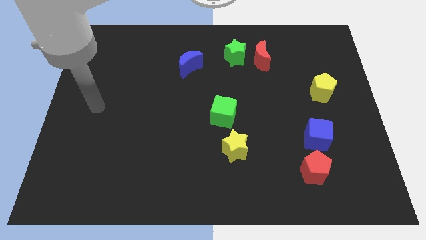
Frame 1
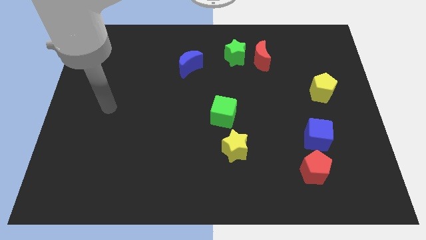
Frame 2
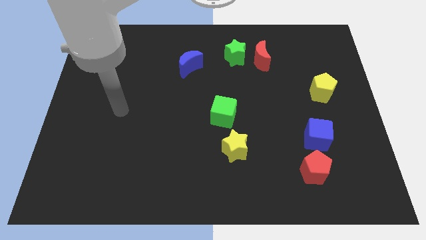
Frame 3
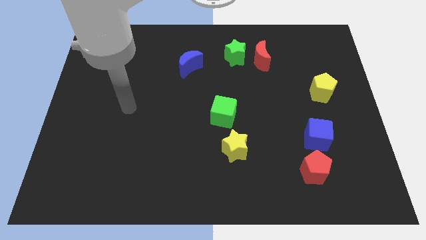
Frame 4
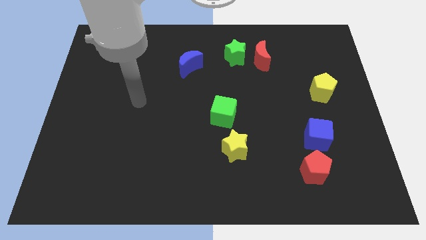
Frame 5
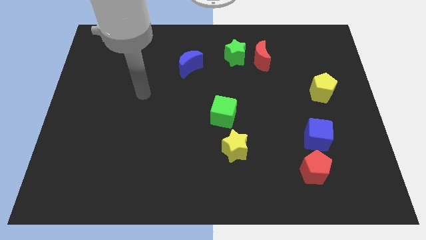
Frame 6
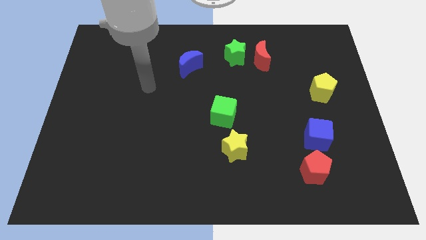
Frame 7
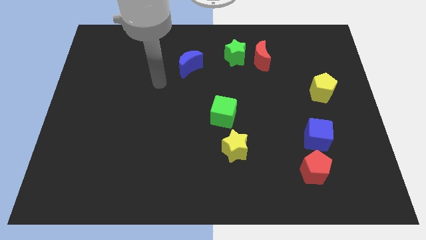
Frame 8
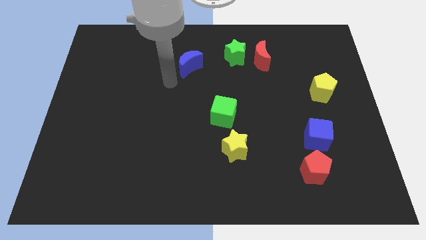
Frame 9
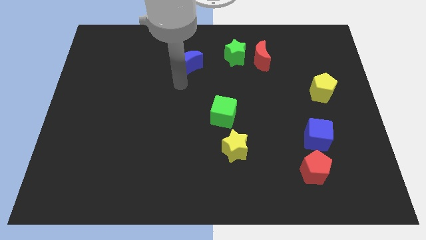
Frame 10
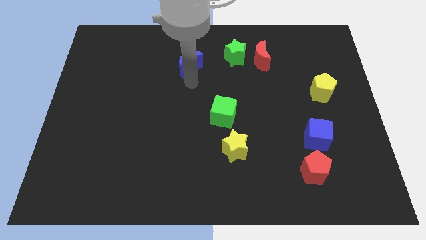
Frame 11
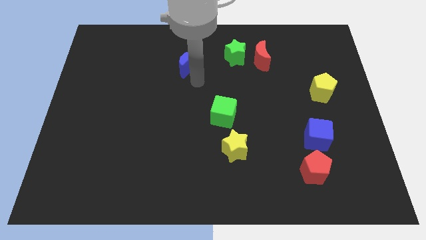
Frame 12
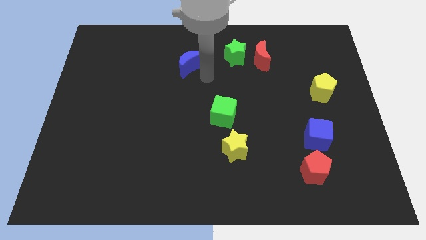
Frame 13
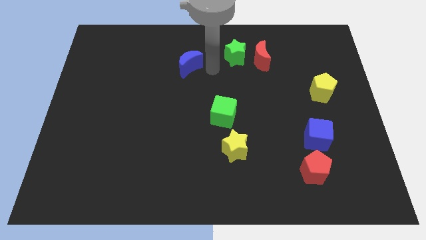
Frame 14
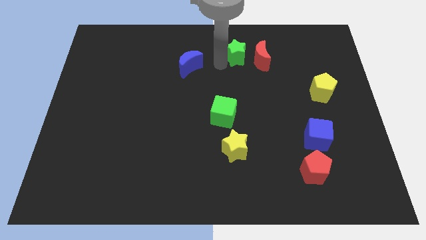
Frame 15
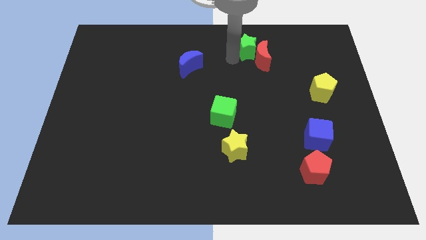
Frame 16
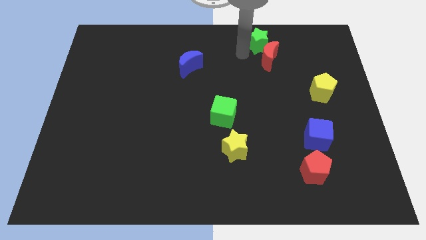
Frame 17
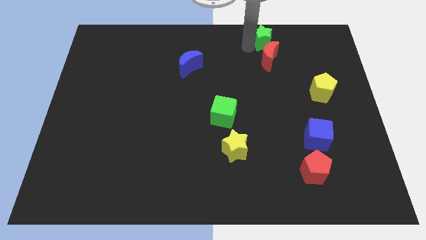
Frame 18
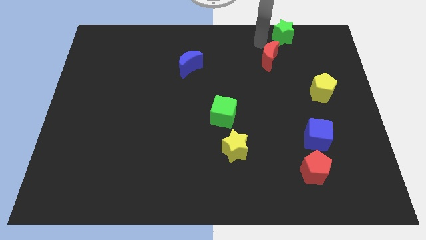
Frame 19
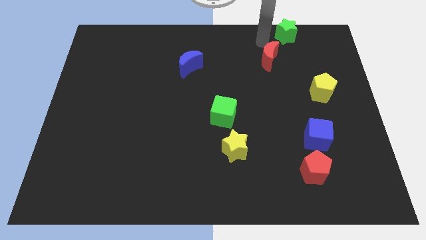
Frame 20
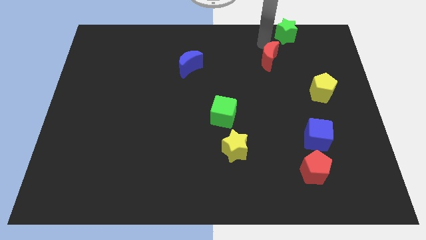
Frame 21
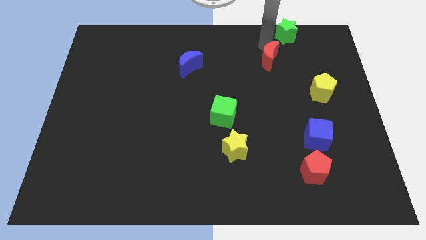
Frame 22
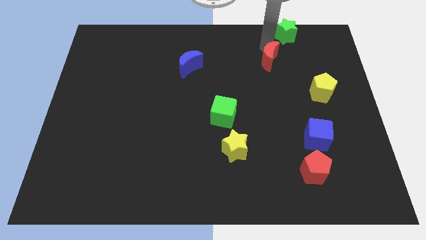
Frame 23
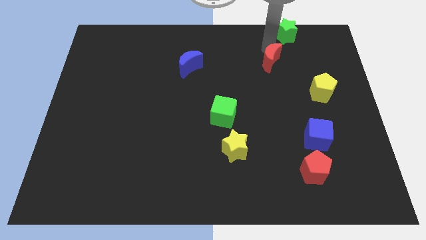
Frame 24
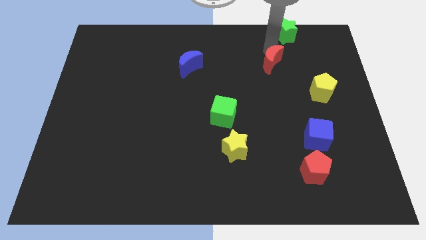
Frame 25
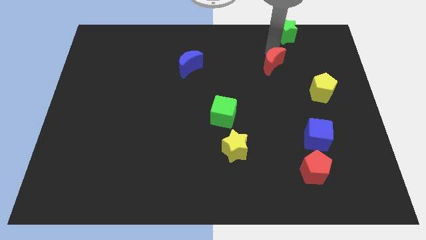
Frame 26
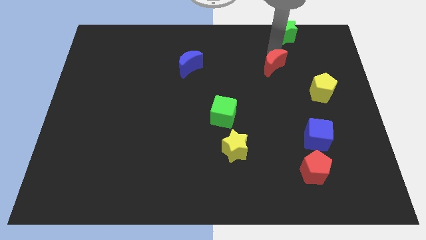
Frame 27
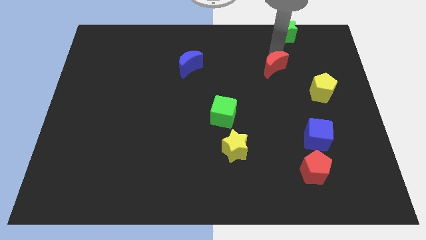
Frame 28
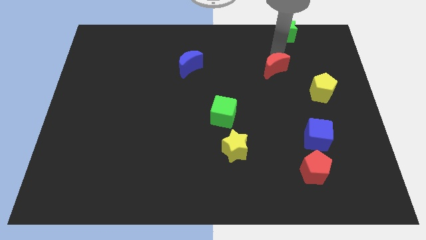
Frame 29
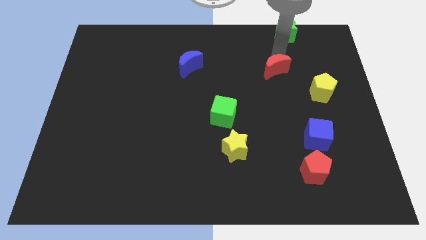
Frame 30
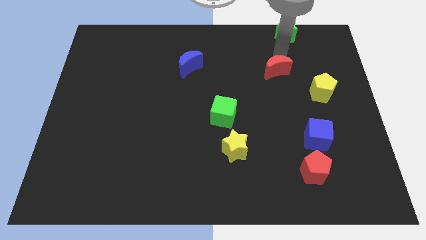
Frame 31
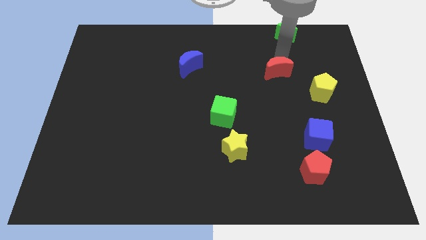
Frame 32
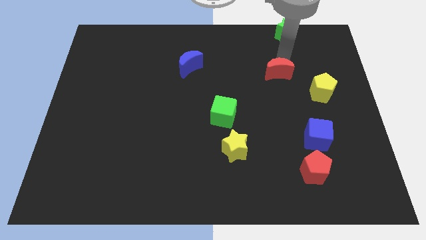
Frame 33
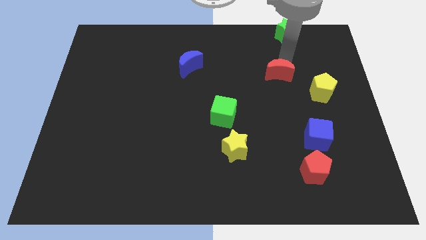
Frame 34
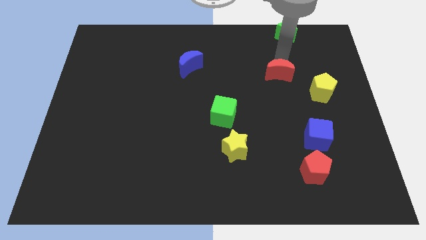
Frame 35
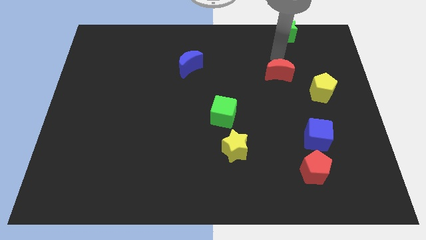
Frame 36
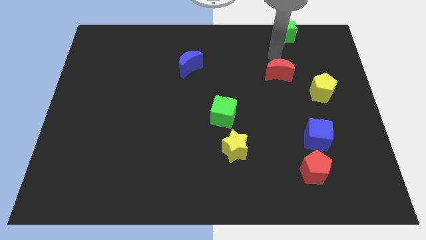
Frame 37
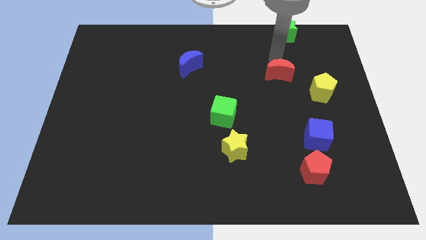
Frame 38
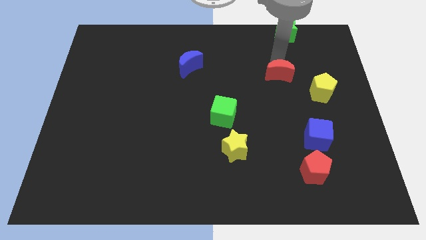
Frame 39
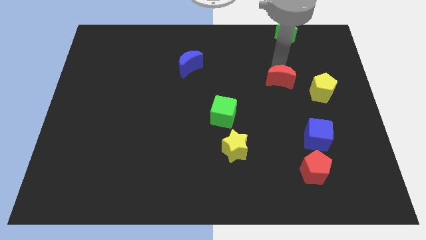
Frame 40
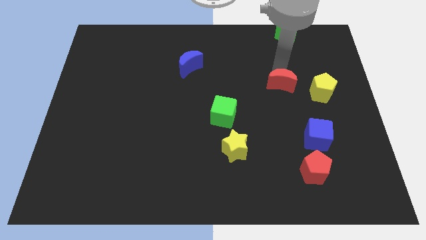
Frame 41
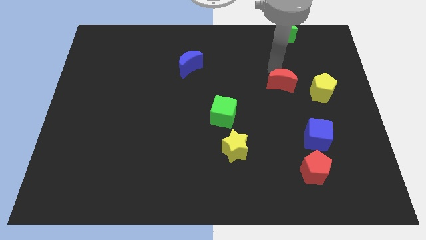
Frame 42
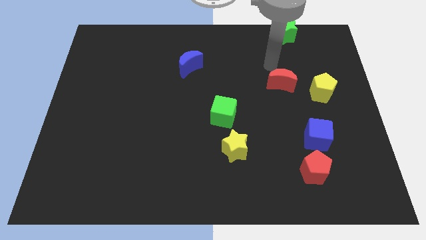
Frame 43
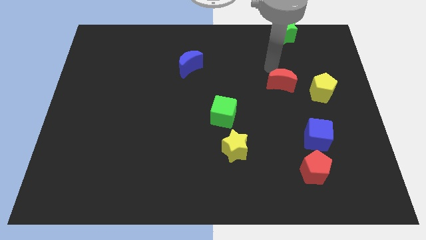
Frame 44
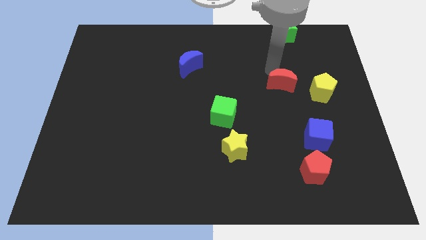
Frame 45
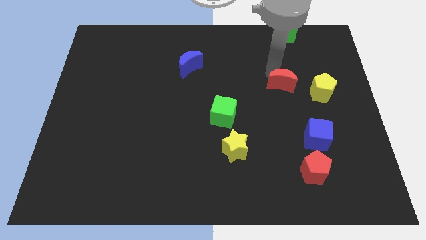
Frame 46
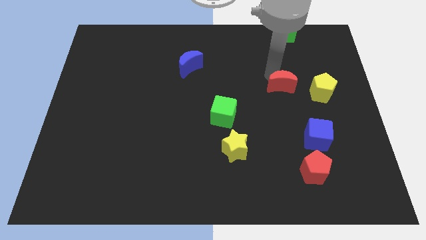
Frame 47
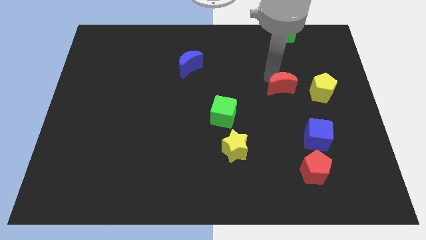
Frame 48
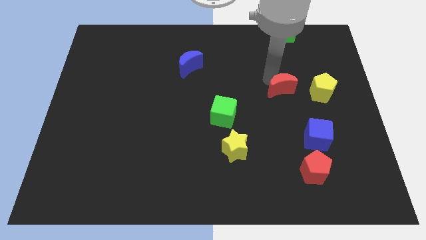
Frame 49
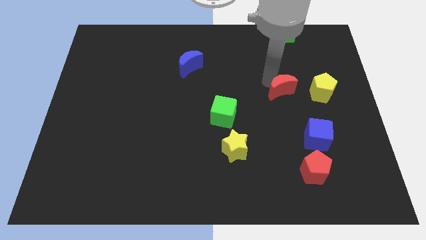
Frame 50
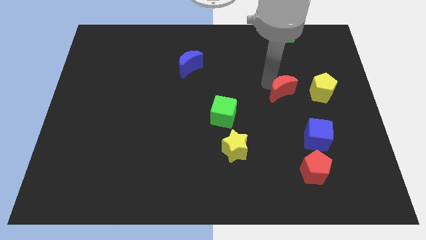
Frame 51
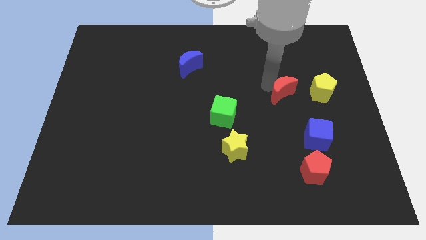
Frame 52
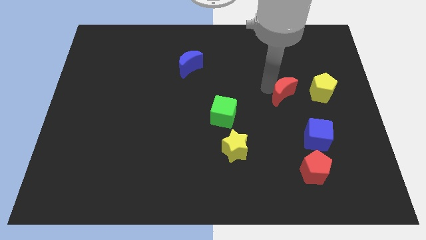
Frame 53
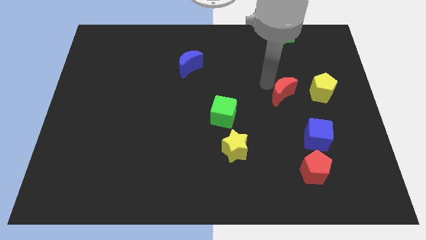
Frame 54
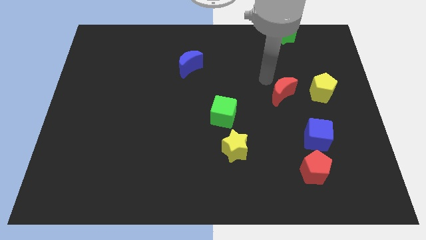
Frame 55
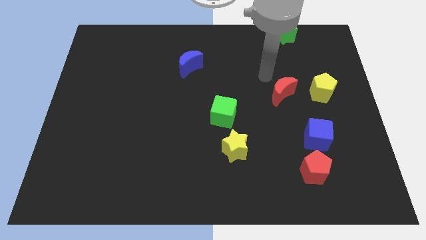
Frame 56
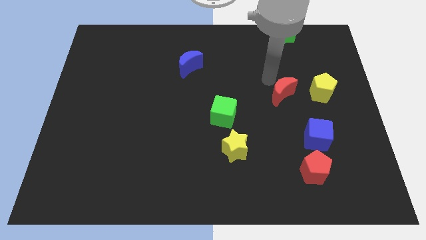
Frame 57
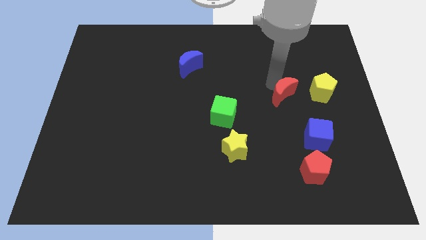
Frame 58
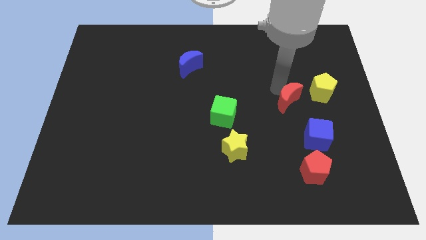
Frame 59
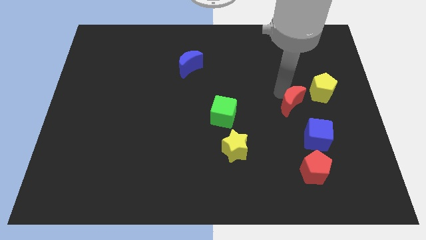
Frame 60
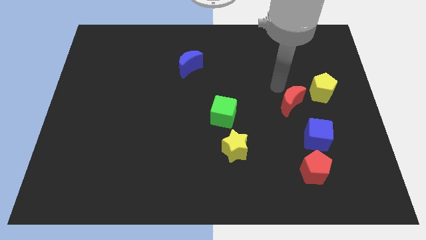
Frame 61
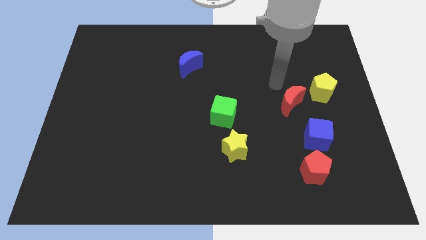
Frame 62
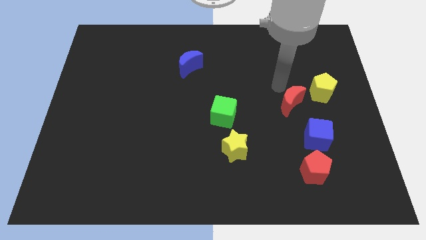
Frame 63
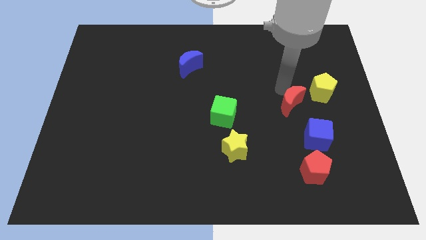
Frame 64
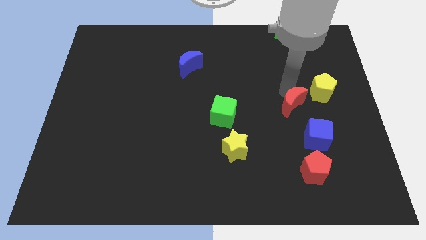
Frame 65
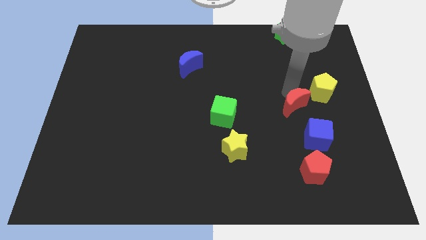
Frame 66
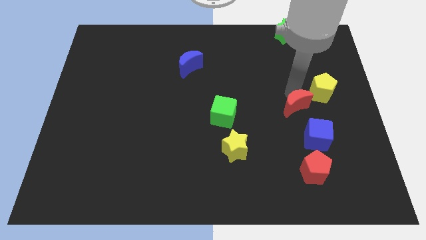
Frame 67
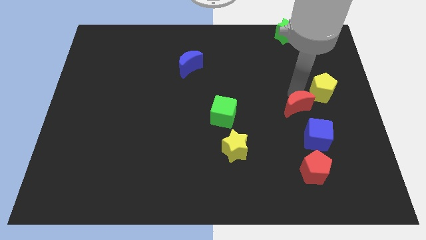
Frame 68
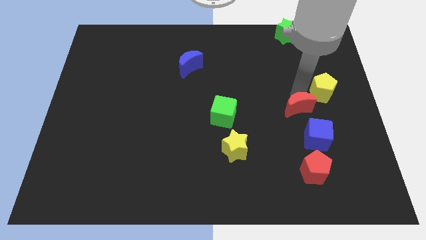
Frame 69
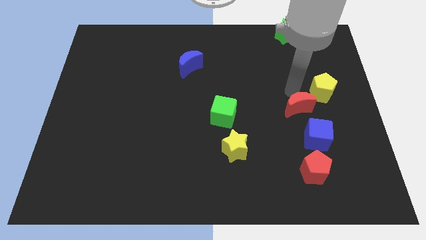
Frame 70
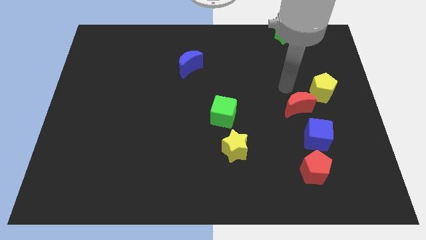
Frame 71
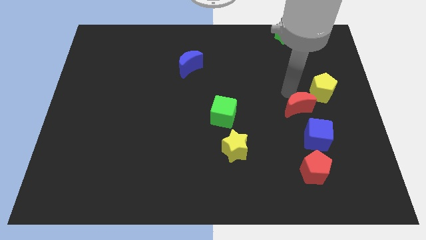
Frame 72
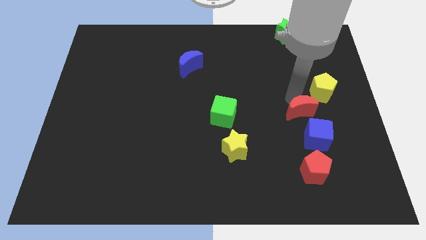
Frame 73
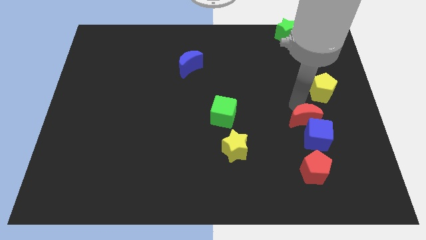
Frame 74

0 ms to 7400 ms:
put the red moon next to the blue cube
